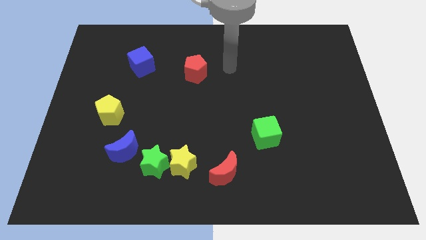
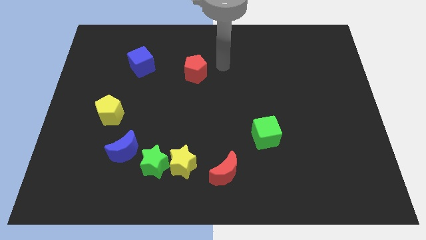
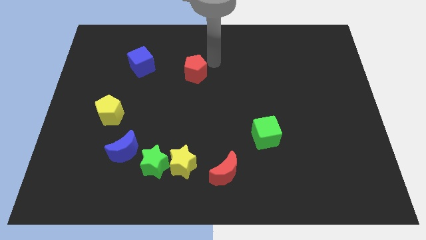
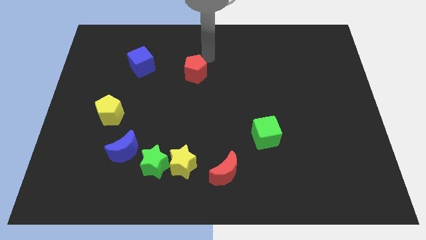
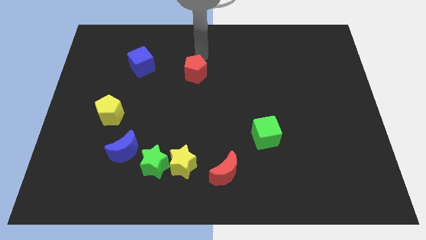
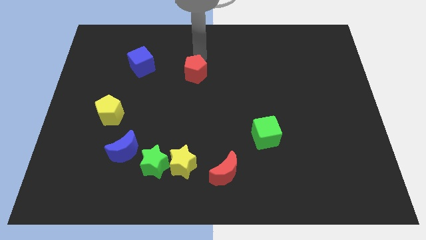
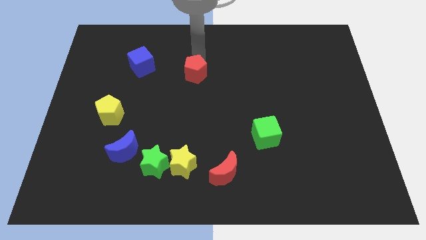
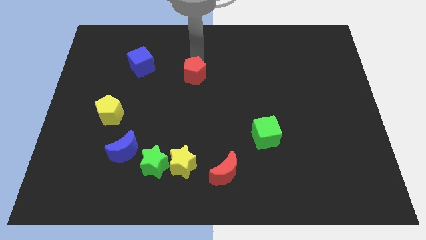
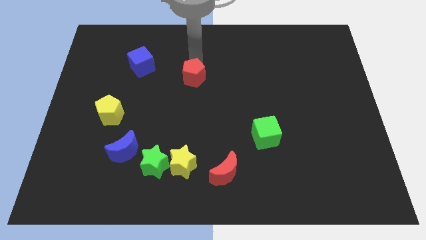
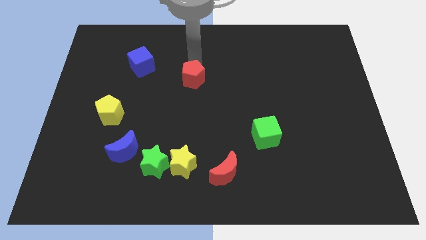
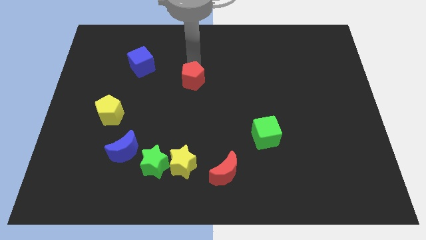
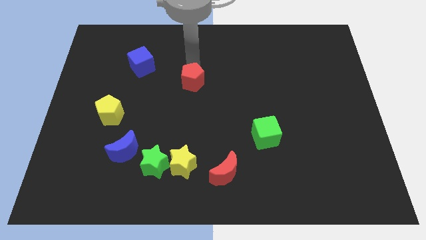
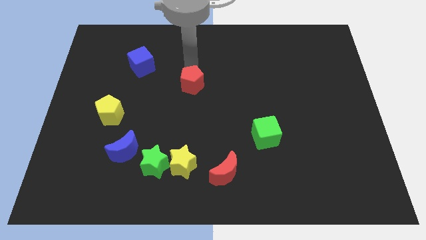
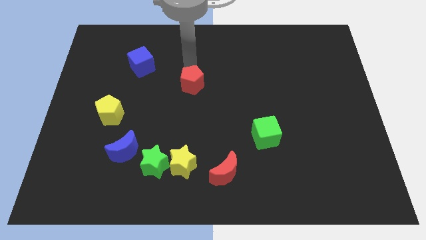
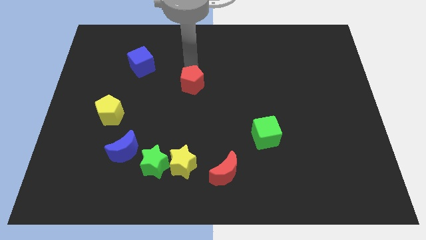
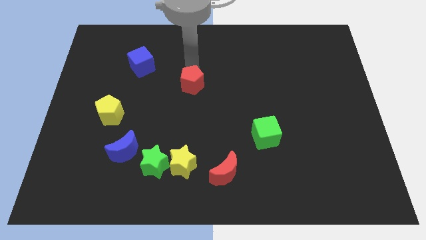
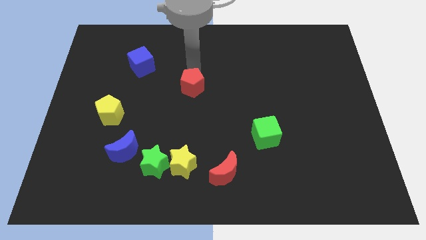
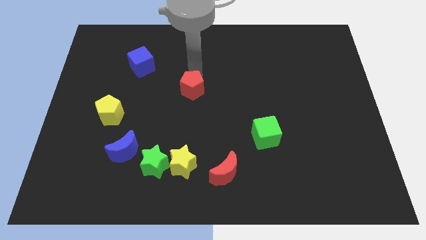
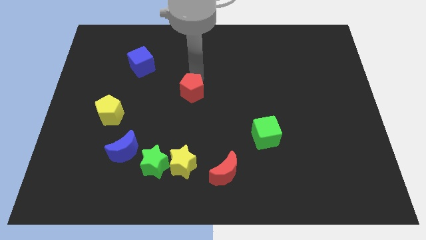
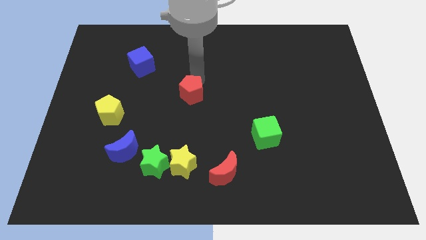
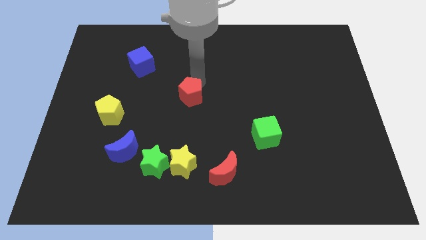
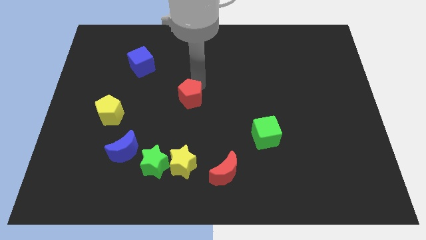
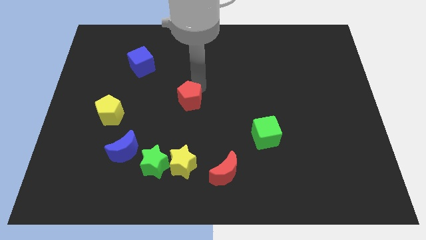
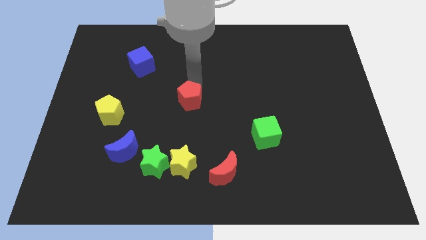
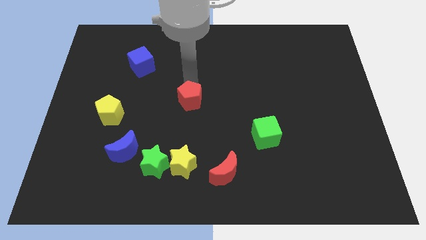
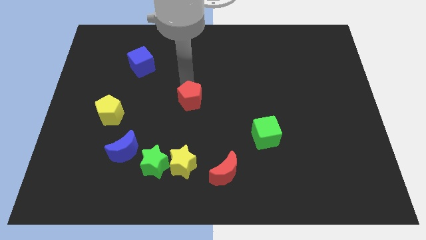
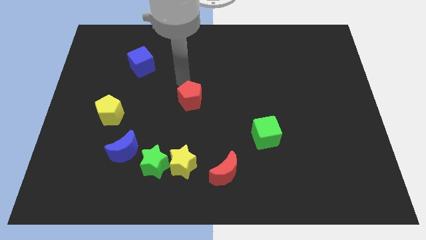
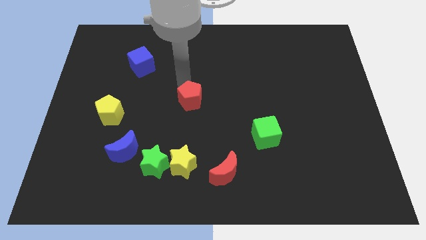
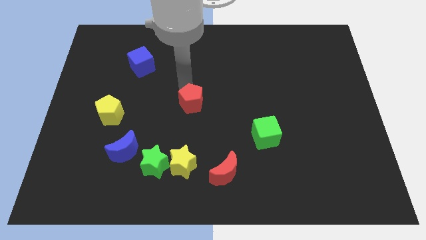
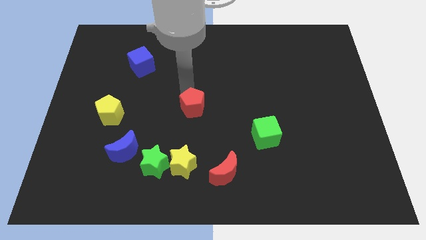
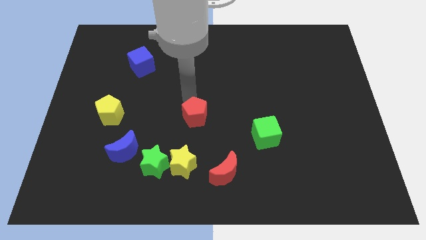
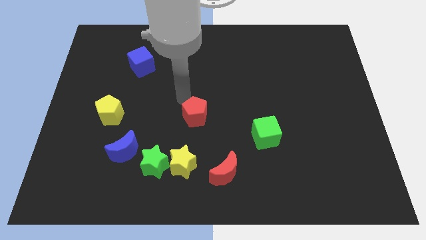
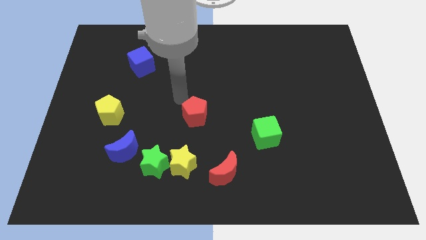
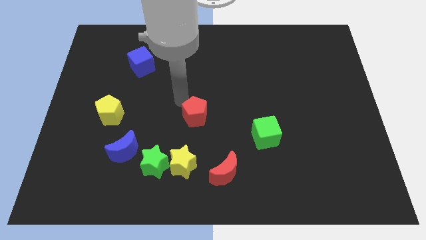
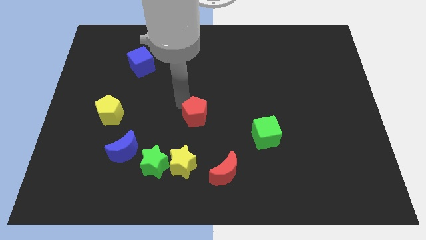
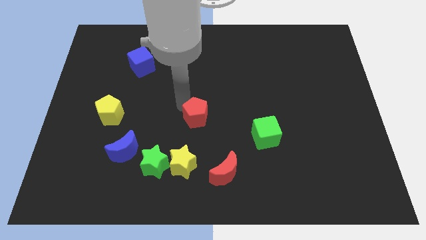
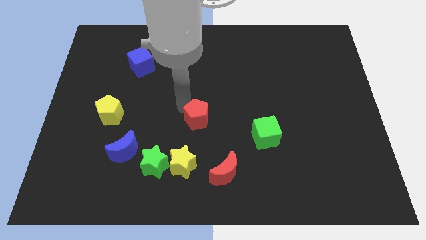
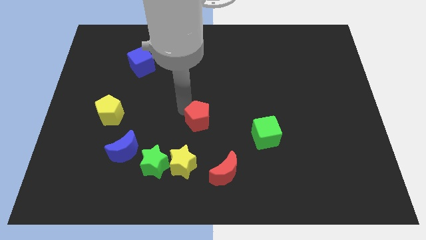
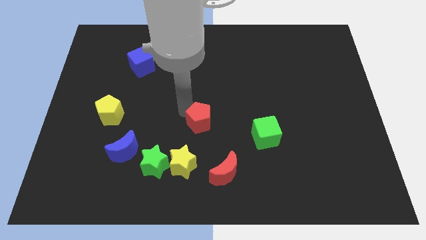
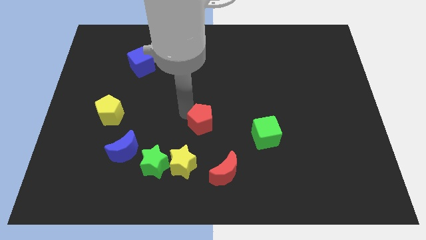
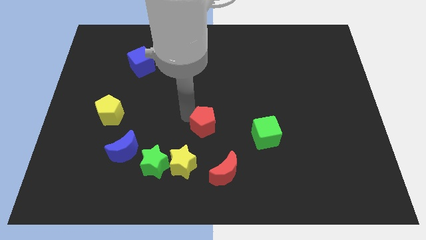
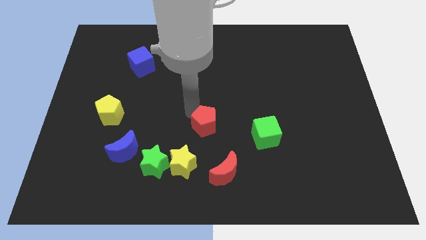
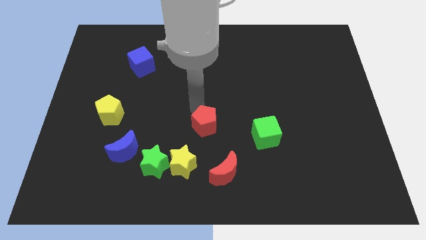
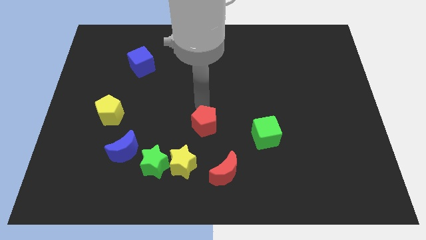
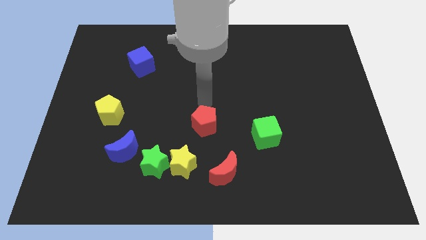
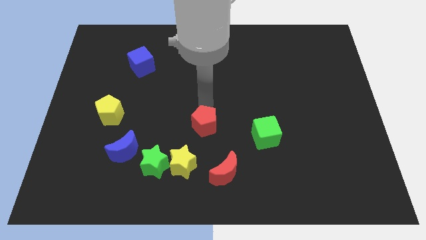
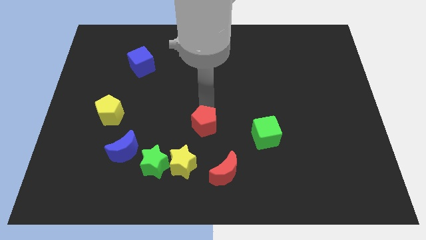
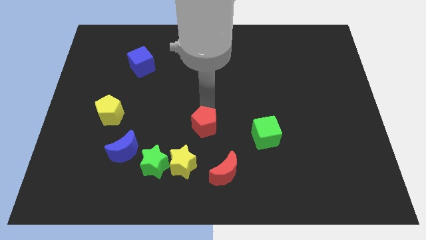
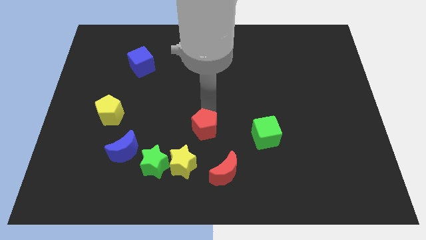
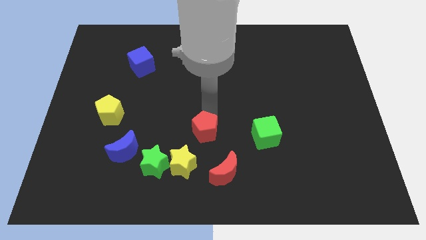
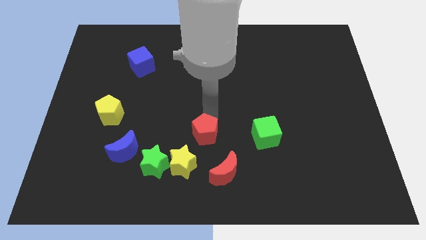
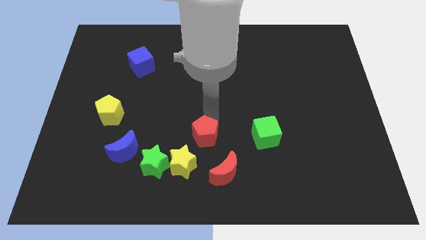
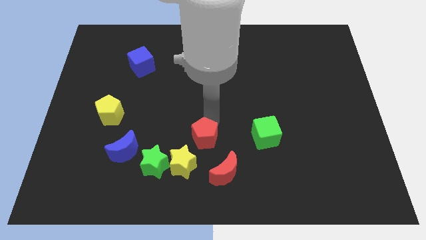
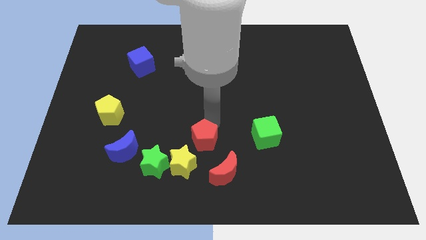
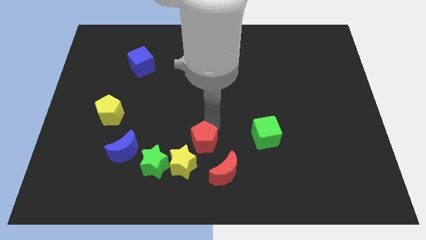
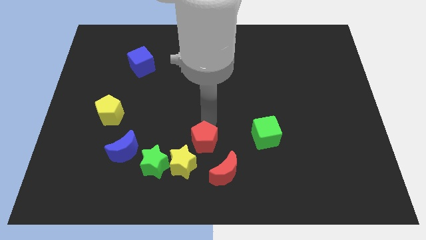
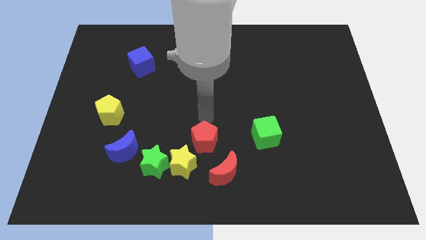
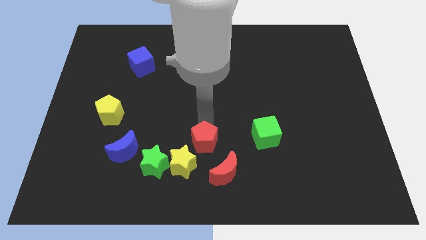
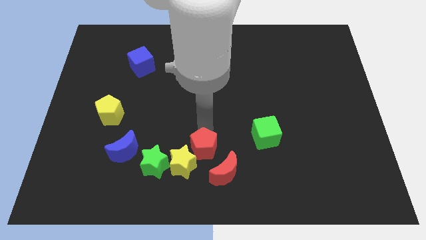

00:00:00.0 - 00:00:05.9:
put the red pentagon to the right of the green star
